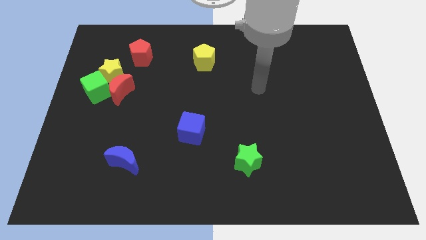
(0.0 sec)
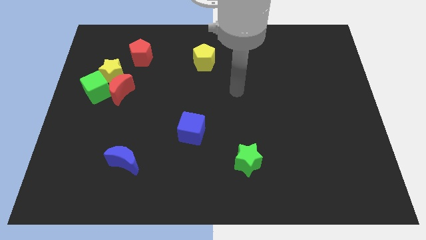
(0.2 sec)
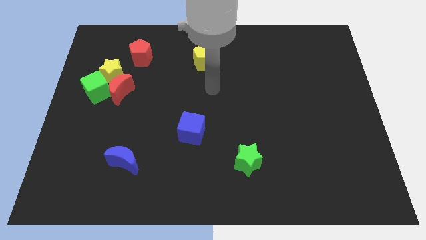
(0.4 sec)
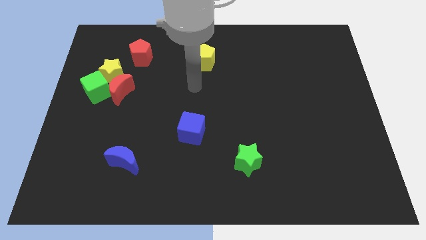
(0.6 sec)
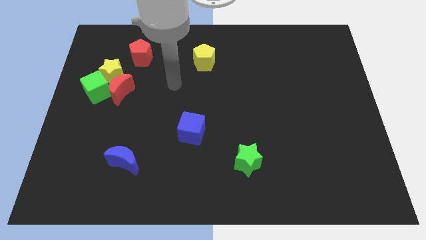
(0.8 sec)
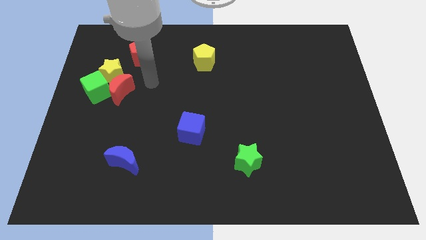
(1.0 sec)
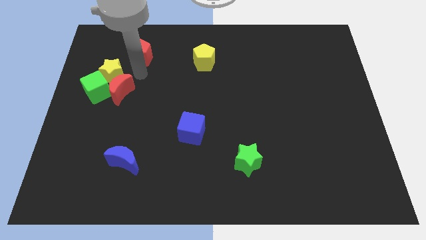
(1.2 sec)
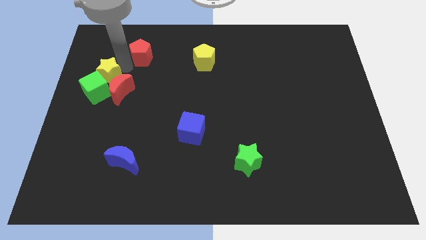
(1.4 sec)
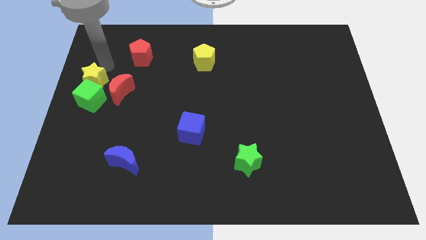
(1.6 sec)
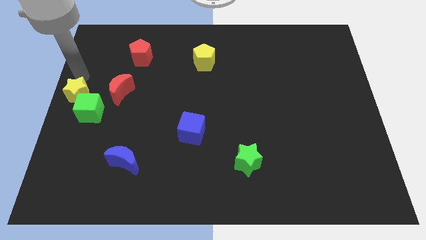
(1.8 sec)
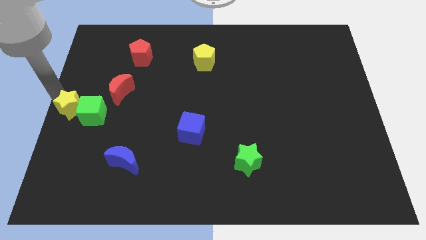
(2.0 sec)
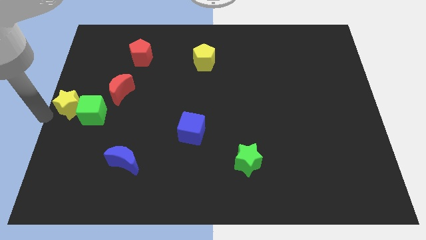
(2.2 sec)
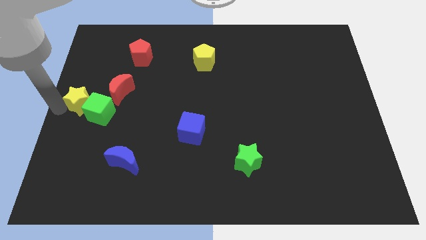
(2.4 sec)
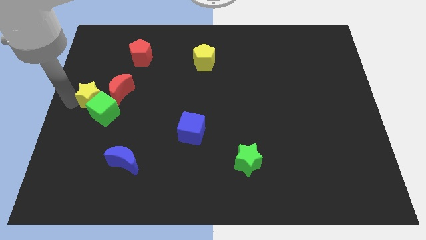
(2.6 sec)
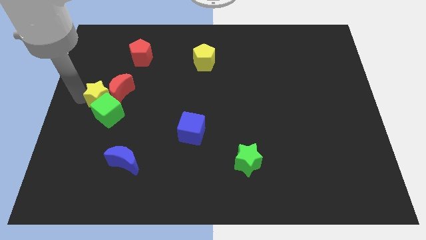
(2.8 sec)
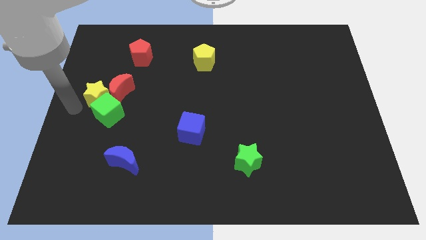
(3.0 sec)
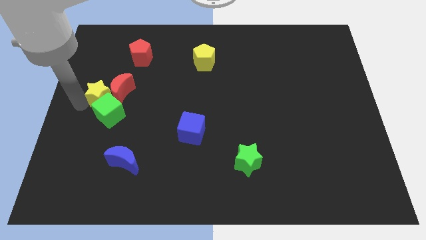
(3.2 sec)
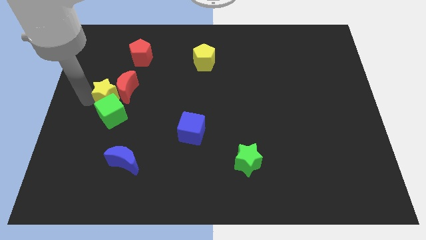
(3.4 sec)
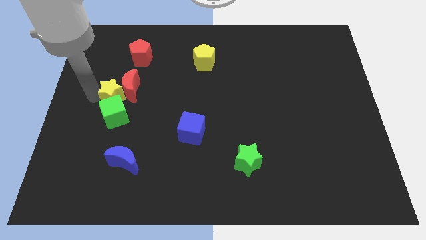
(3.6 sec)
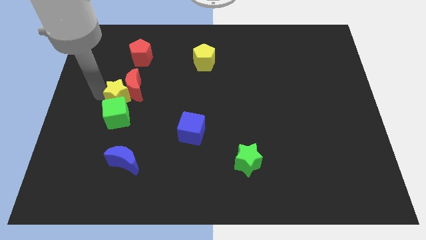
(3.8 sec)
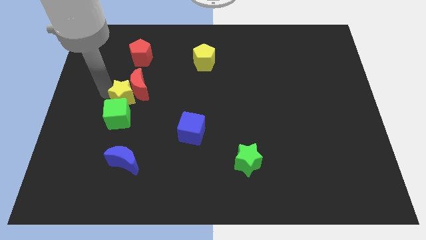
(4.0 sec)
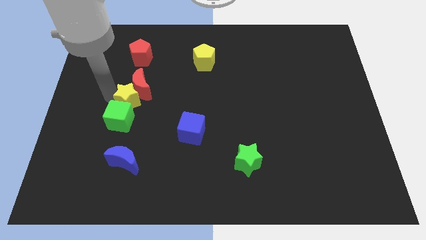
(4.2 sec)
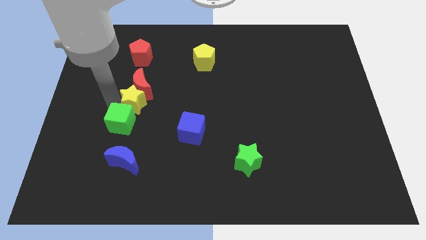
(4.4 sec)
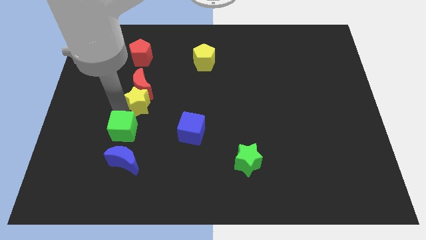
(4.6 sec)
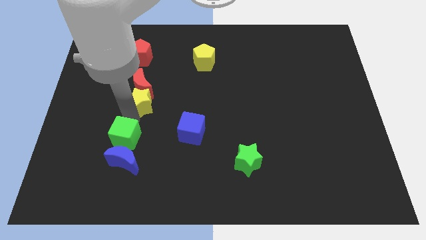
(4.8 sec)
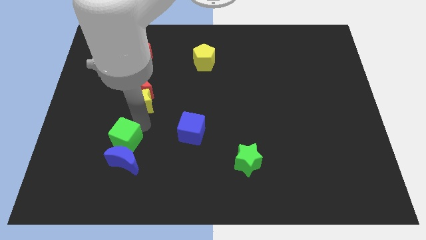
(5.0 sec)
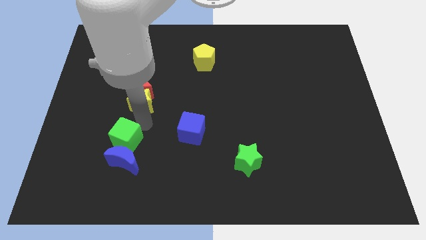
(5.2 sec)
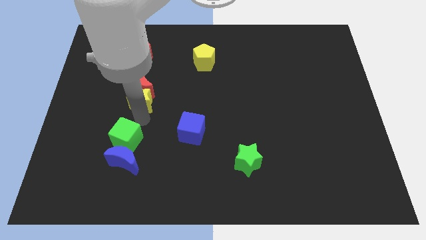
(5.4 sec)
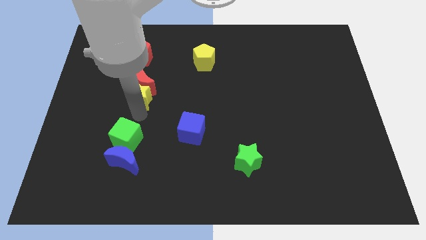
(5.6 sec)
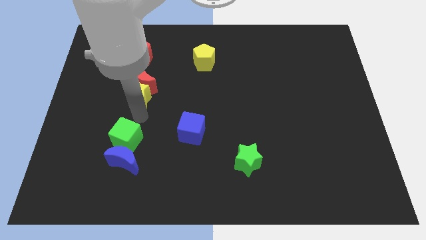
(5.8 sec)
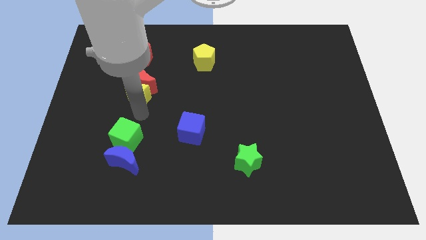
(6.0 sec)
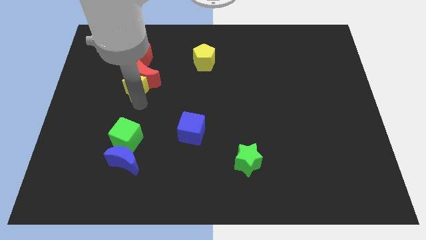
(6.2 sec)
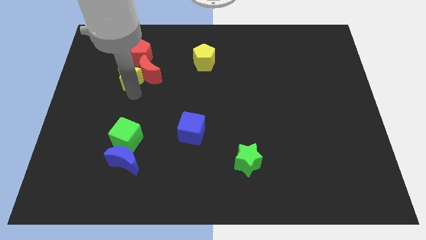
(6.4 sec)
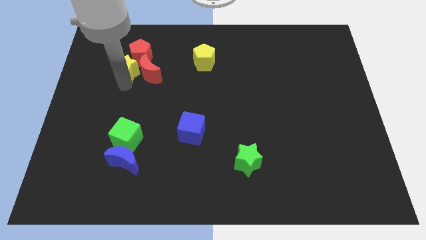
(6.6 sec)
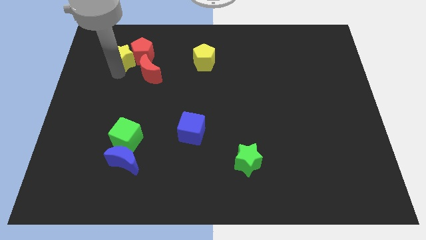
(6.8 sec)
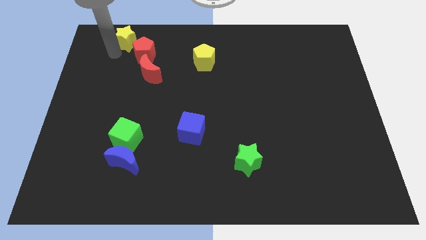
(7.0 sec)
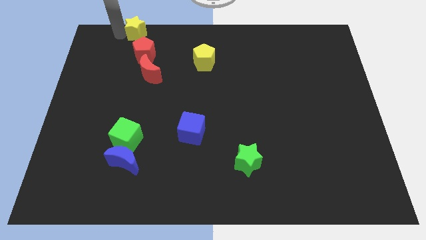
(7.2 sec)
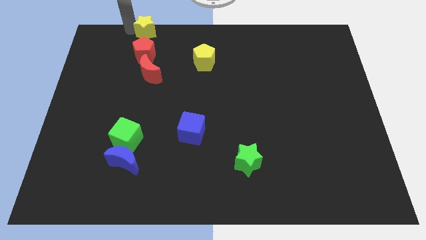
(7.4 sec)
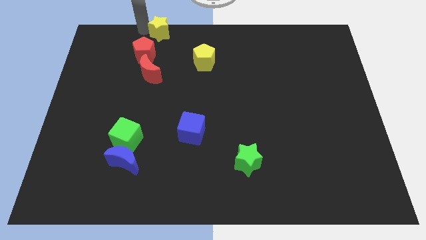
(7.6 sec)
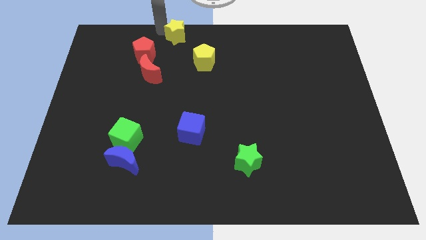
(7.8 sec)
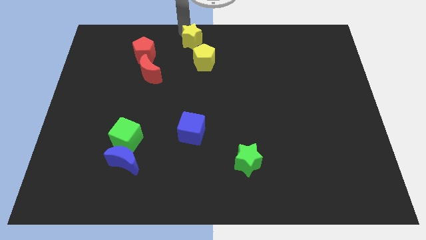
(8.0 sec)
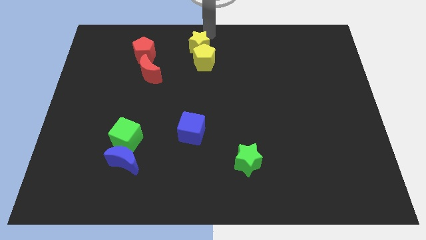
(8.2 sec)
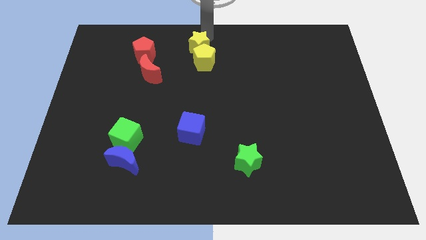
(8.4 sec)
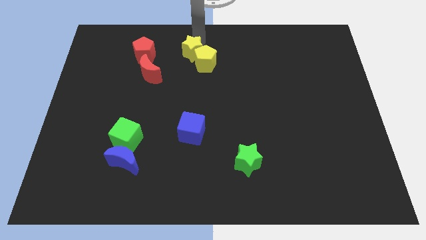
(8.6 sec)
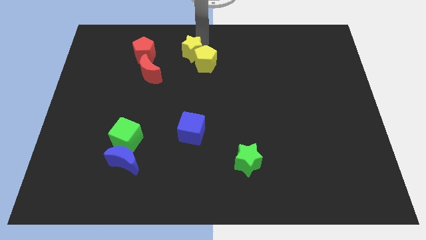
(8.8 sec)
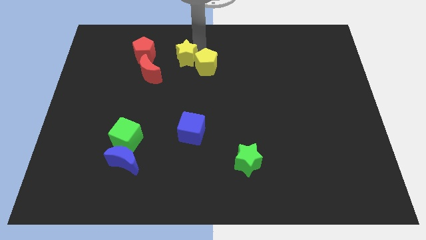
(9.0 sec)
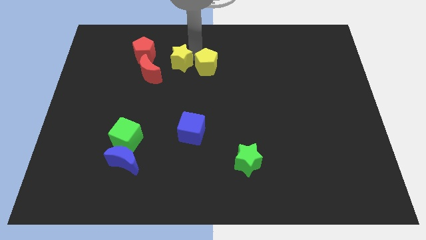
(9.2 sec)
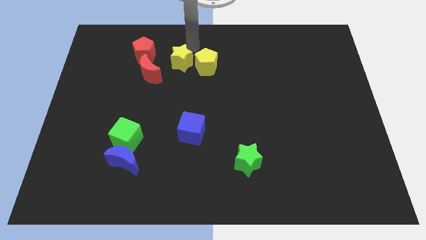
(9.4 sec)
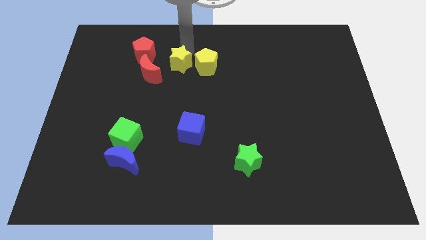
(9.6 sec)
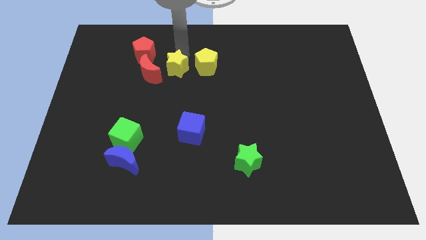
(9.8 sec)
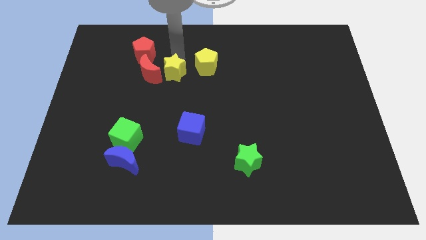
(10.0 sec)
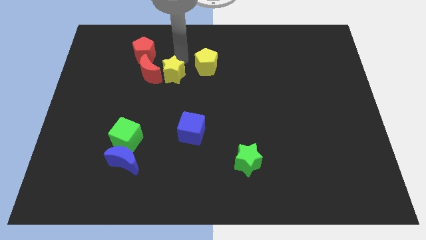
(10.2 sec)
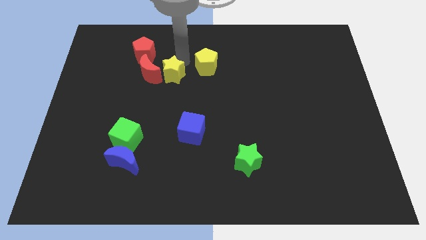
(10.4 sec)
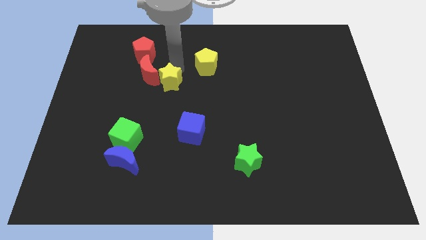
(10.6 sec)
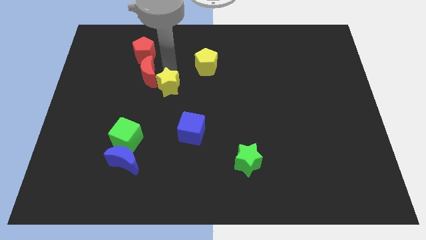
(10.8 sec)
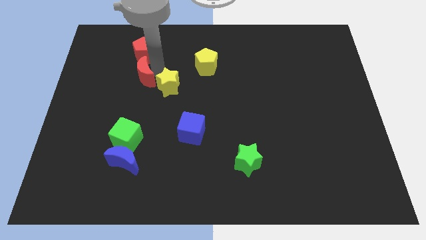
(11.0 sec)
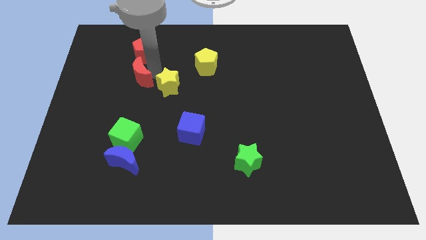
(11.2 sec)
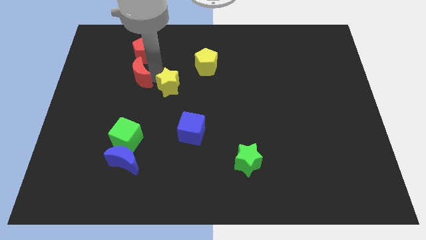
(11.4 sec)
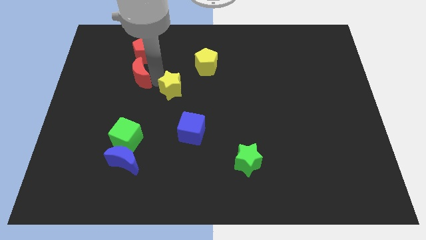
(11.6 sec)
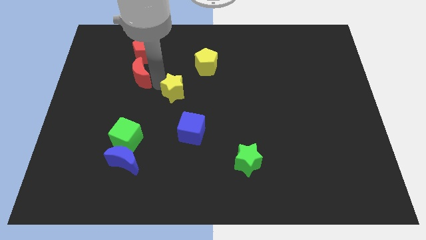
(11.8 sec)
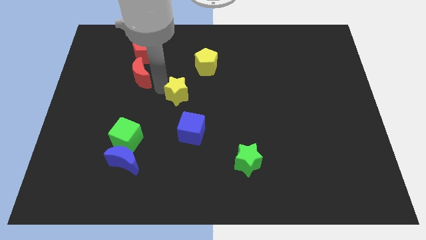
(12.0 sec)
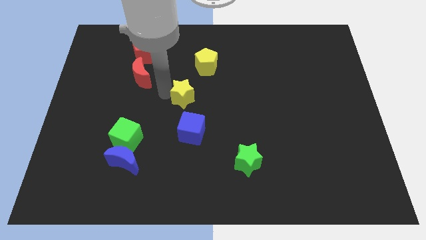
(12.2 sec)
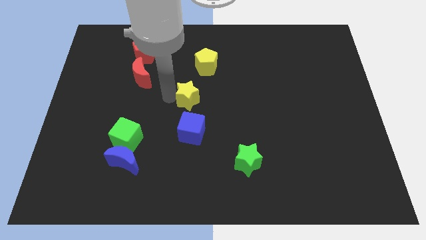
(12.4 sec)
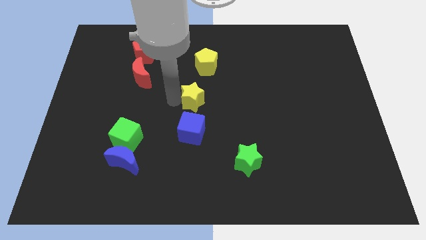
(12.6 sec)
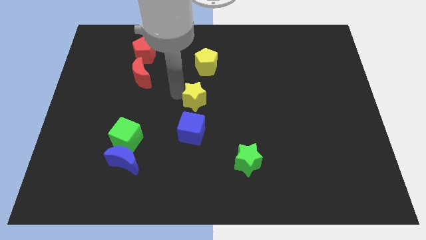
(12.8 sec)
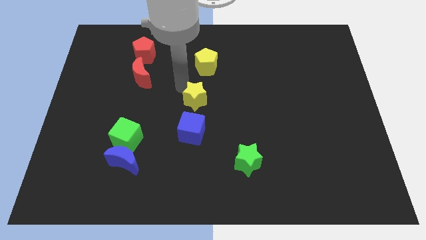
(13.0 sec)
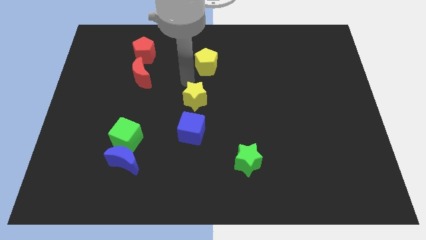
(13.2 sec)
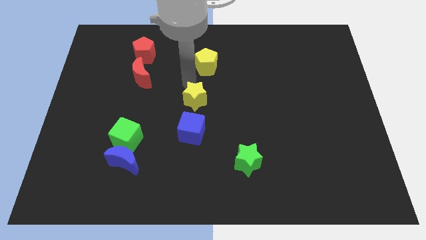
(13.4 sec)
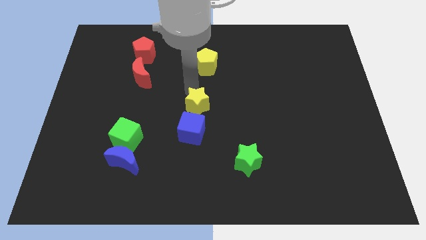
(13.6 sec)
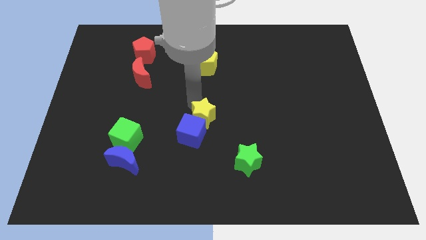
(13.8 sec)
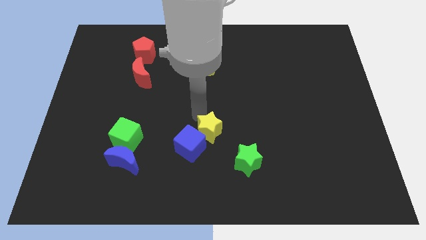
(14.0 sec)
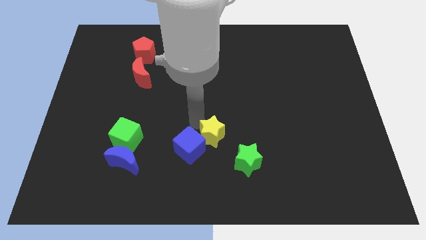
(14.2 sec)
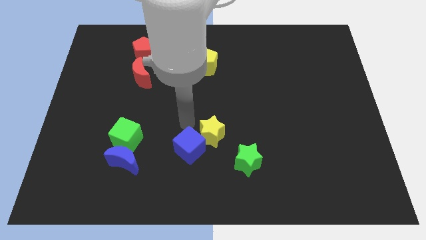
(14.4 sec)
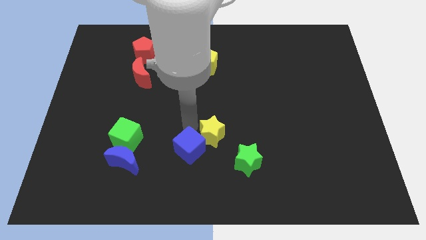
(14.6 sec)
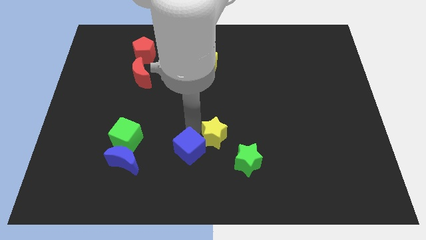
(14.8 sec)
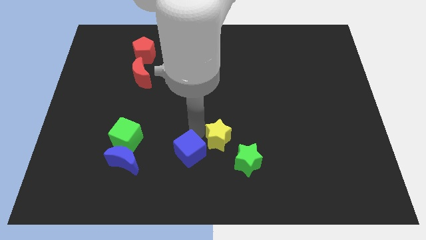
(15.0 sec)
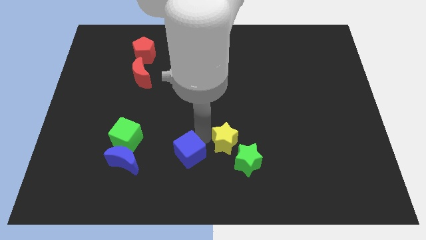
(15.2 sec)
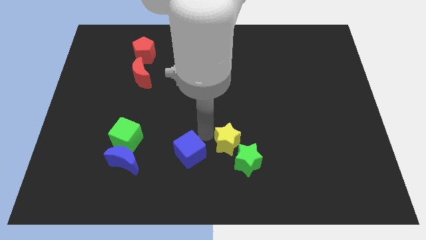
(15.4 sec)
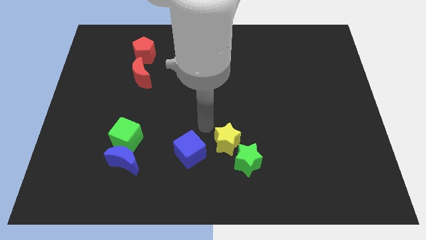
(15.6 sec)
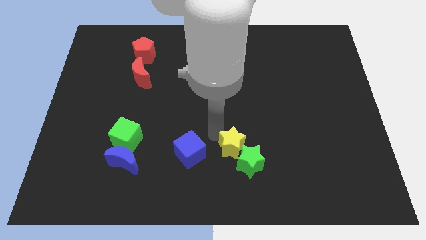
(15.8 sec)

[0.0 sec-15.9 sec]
move the yellow star towards the green star
